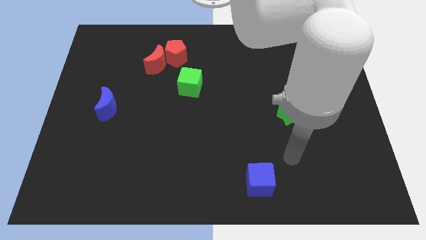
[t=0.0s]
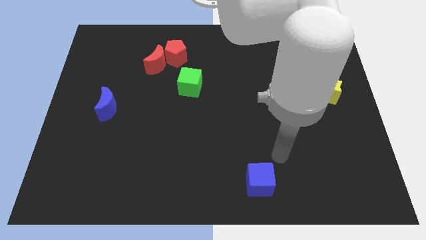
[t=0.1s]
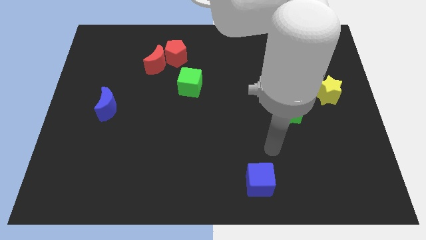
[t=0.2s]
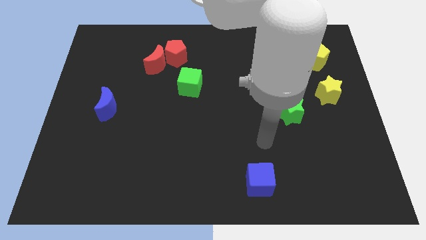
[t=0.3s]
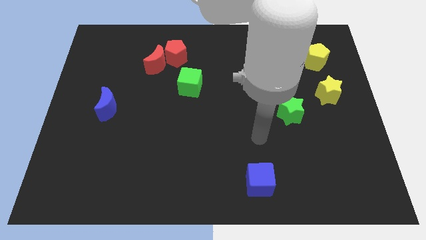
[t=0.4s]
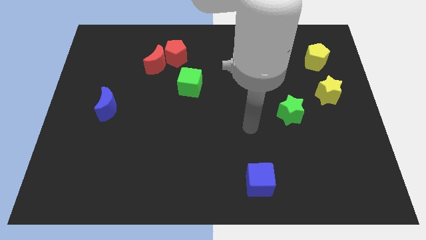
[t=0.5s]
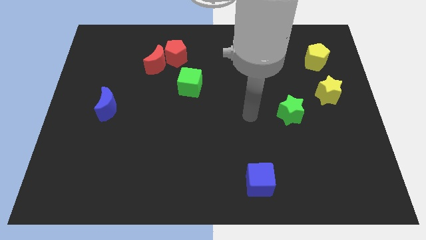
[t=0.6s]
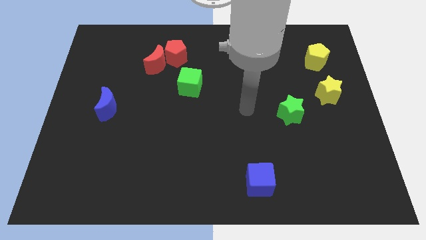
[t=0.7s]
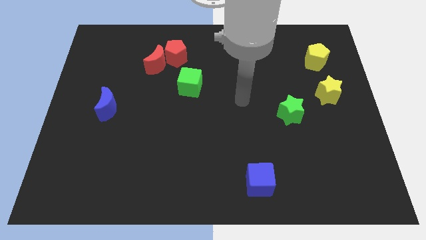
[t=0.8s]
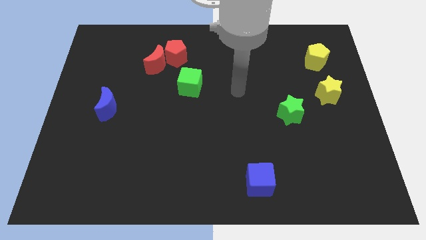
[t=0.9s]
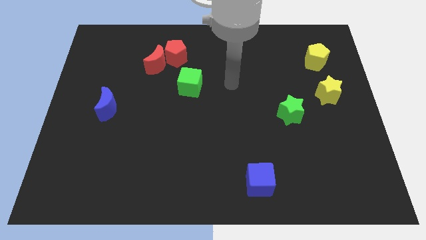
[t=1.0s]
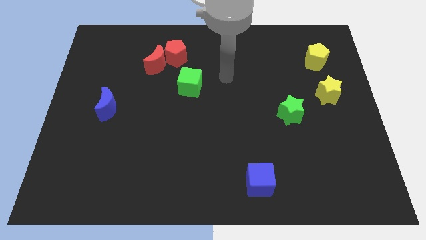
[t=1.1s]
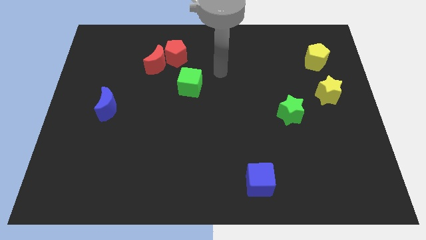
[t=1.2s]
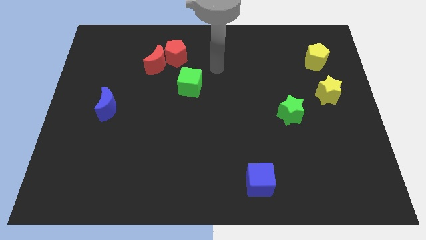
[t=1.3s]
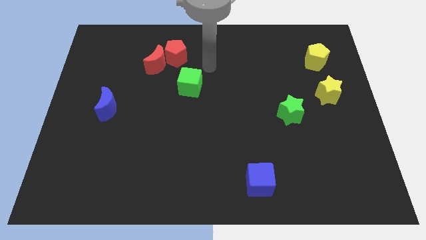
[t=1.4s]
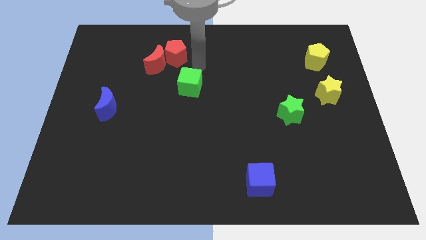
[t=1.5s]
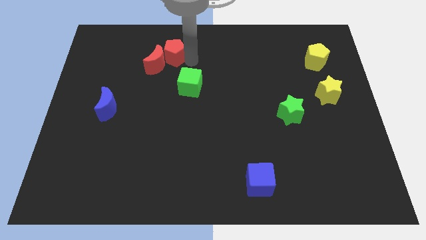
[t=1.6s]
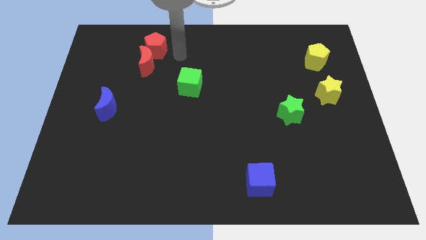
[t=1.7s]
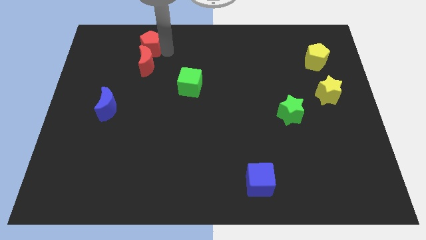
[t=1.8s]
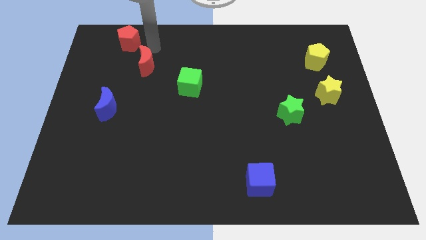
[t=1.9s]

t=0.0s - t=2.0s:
separate the red moon from the red pentagon

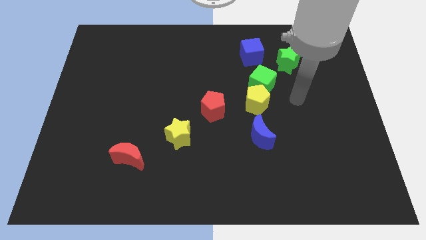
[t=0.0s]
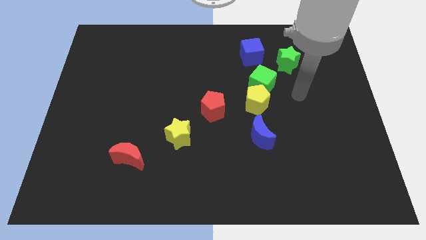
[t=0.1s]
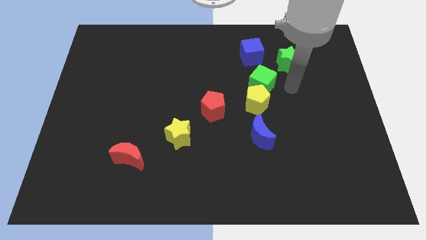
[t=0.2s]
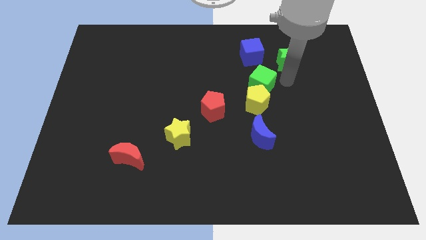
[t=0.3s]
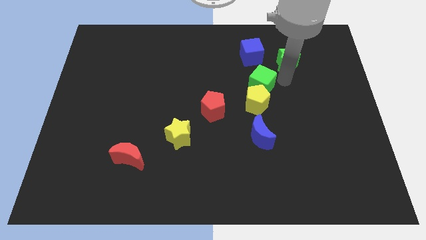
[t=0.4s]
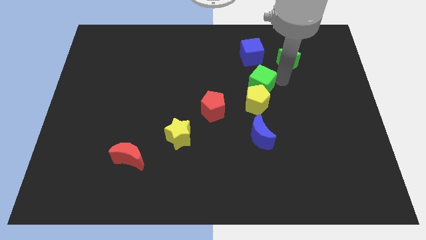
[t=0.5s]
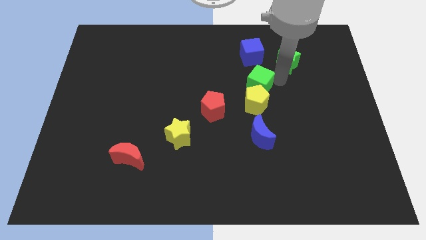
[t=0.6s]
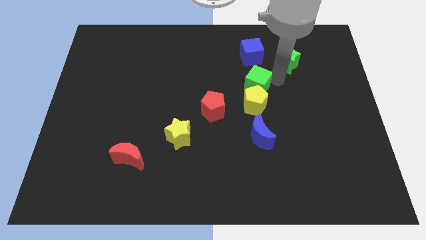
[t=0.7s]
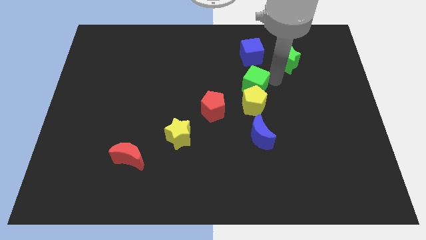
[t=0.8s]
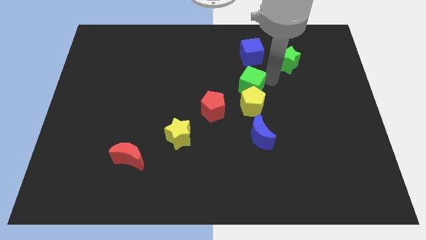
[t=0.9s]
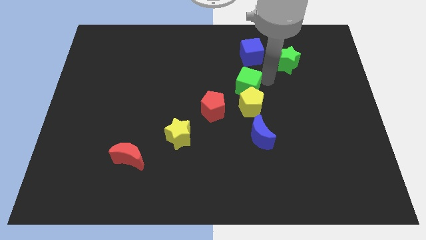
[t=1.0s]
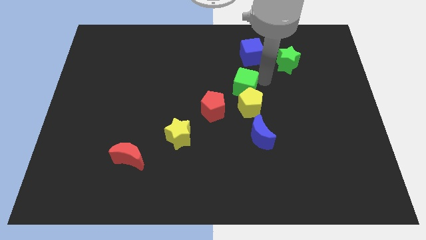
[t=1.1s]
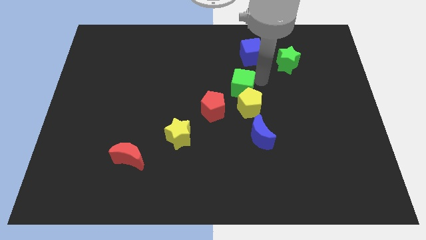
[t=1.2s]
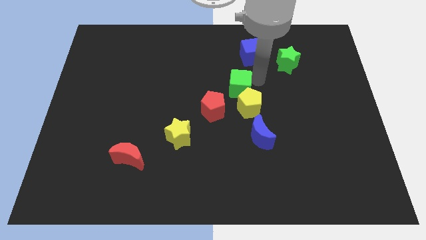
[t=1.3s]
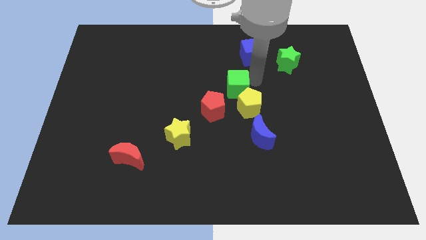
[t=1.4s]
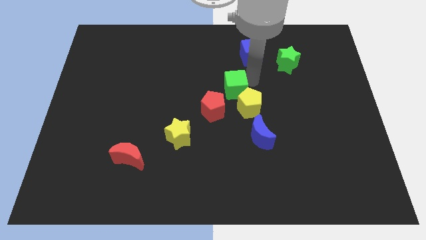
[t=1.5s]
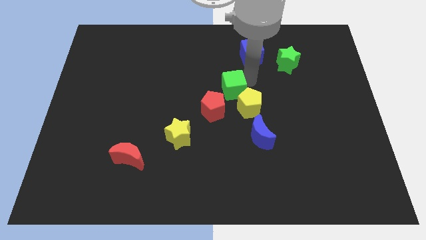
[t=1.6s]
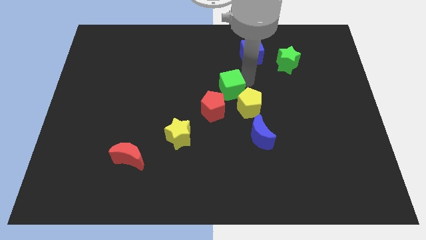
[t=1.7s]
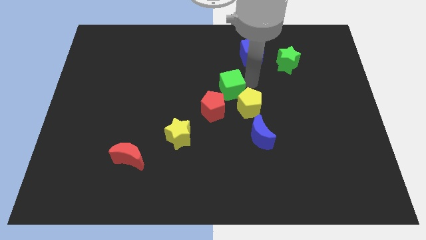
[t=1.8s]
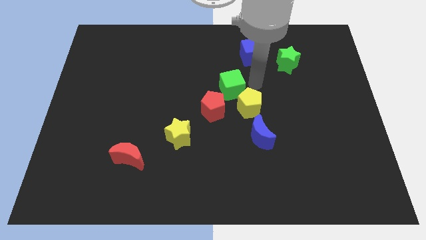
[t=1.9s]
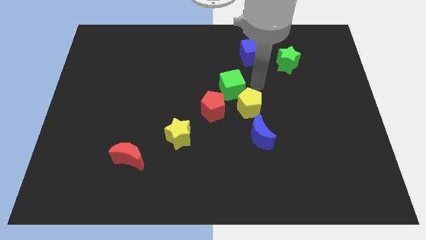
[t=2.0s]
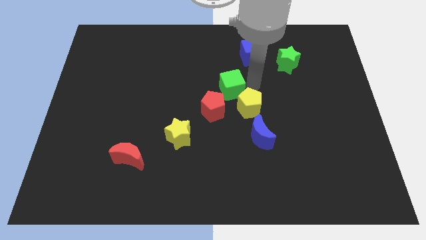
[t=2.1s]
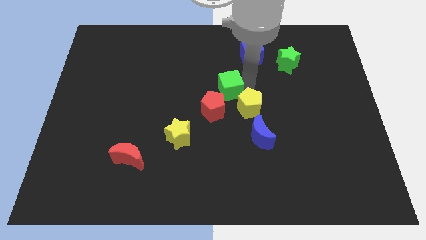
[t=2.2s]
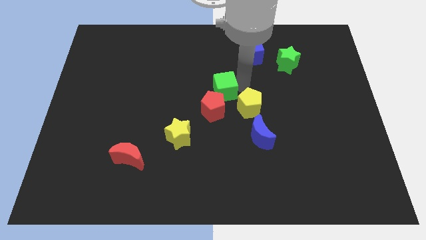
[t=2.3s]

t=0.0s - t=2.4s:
separate the green cube from the yellow pentagon and green star

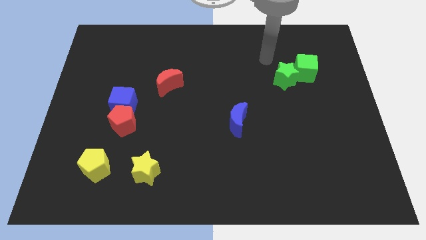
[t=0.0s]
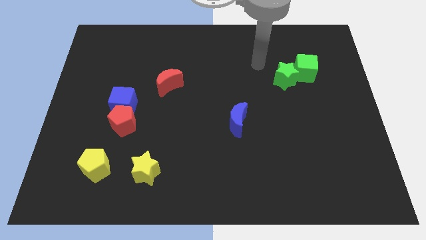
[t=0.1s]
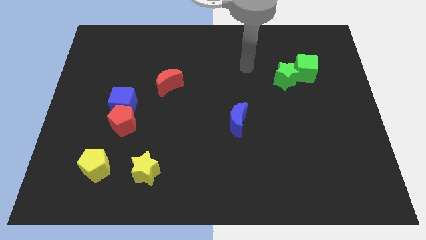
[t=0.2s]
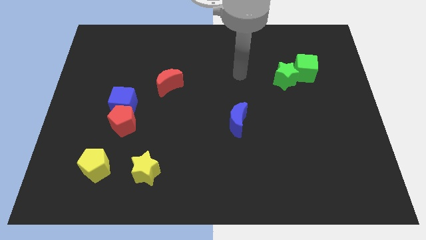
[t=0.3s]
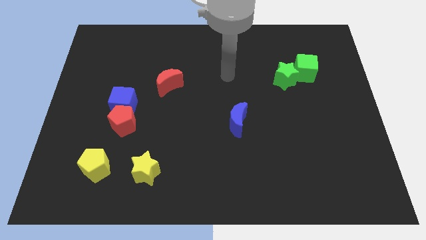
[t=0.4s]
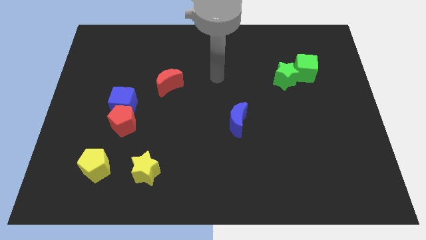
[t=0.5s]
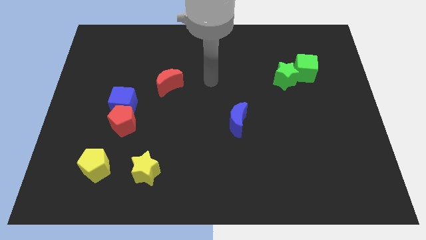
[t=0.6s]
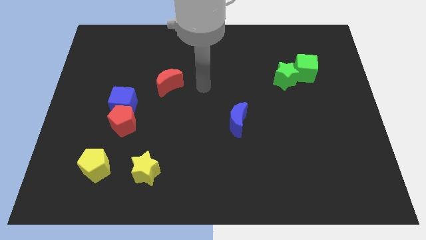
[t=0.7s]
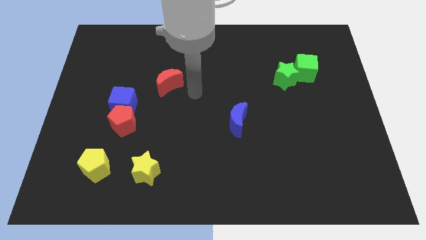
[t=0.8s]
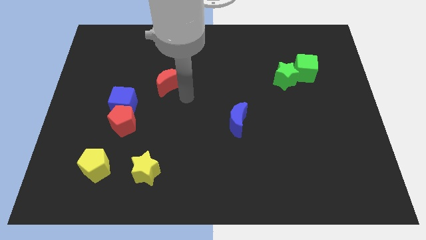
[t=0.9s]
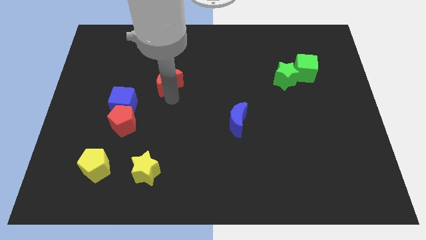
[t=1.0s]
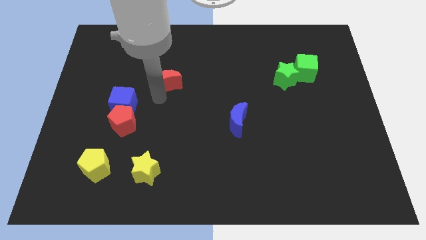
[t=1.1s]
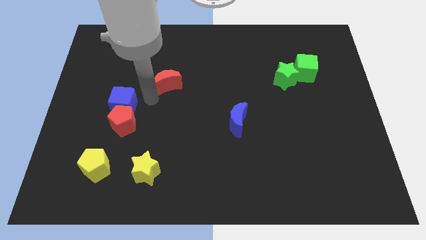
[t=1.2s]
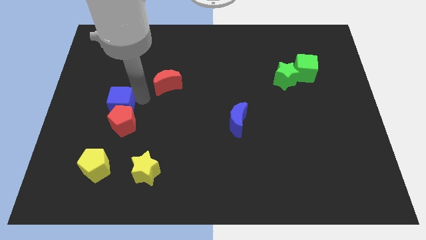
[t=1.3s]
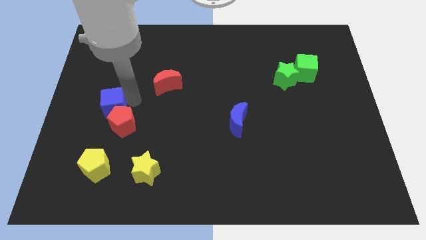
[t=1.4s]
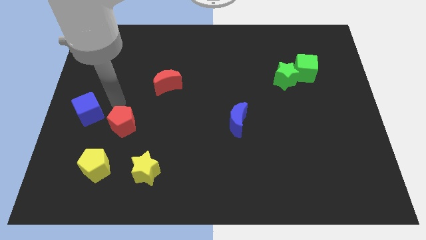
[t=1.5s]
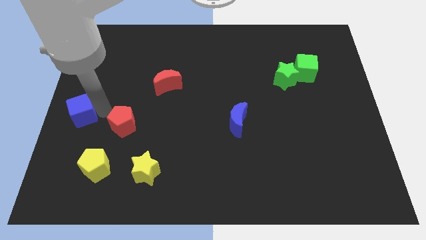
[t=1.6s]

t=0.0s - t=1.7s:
separate the red pentagon from the blue cube

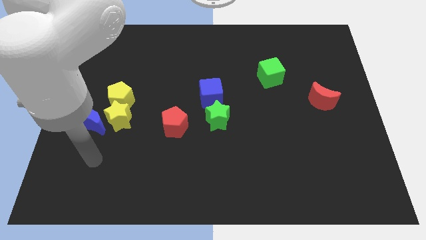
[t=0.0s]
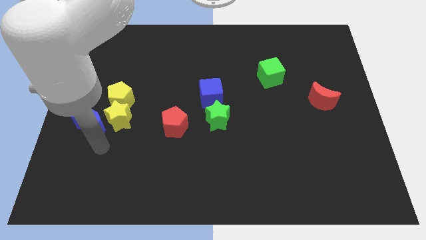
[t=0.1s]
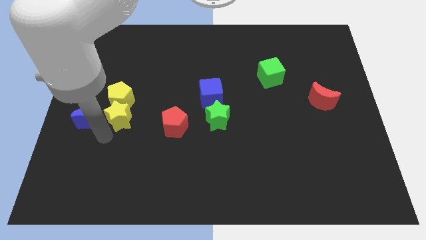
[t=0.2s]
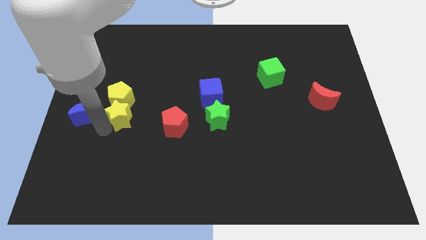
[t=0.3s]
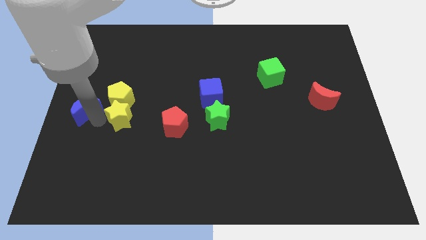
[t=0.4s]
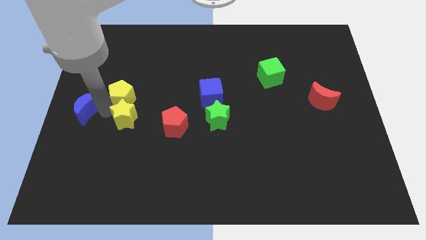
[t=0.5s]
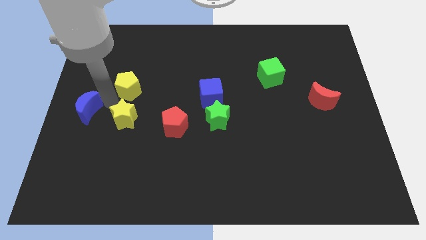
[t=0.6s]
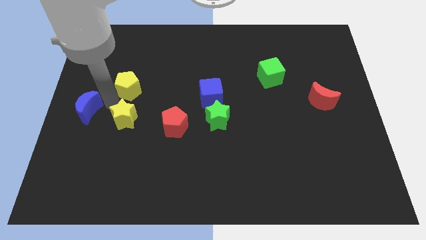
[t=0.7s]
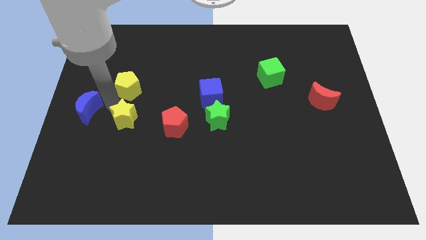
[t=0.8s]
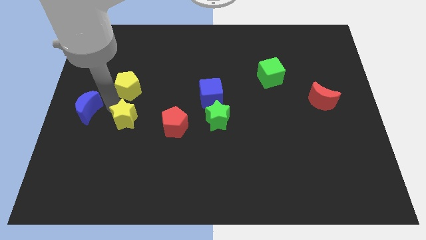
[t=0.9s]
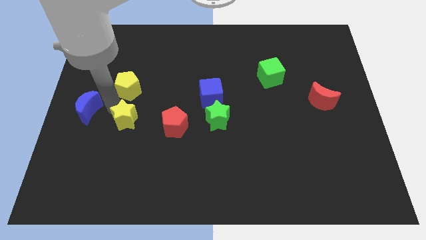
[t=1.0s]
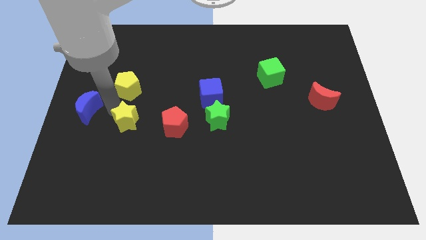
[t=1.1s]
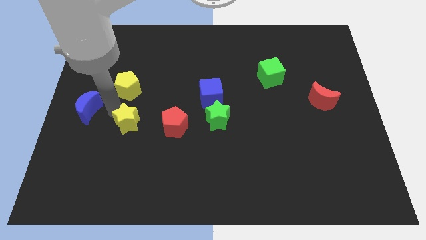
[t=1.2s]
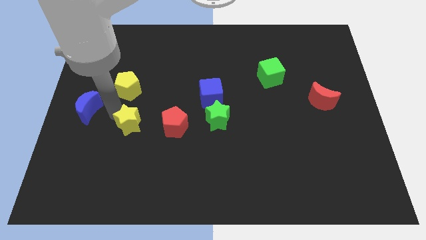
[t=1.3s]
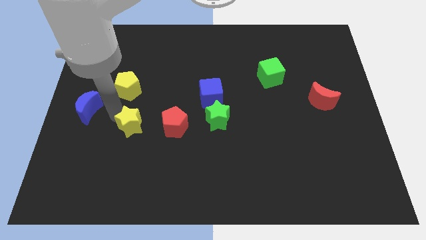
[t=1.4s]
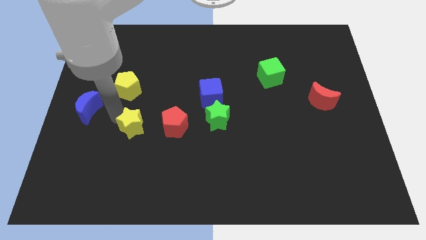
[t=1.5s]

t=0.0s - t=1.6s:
separate the yellow star from the yellow pentagon and blue moon

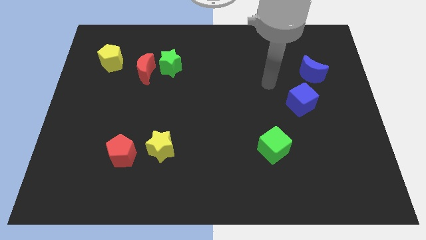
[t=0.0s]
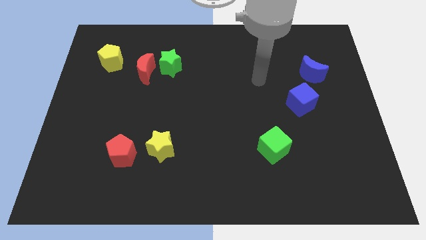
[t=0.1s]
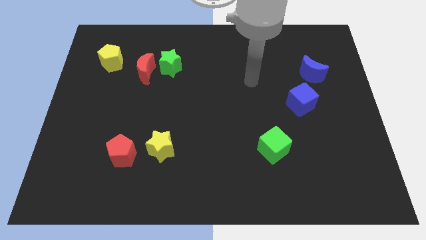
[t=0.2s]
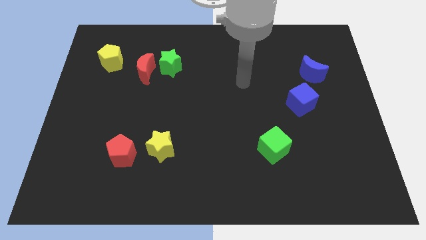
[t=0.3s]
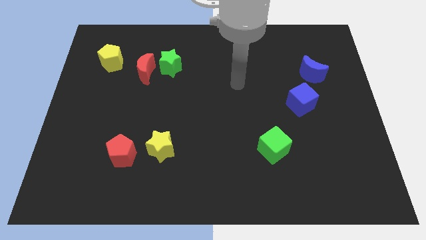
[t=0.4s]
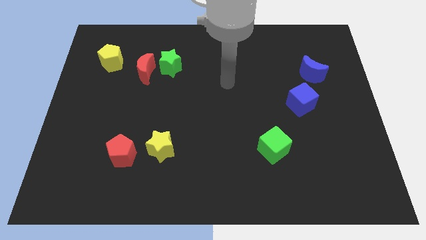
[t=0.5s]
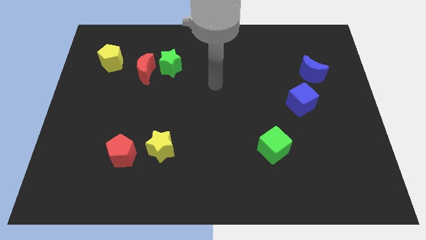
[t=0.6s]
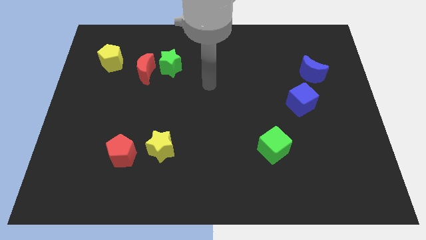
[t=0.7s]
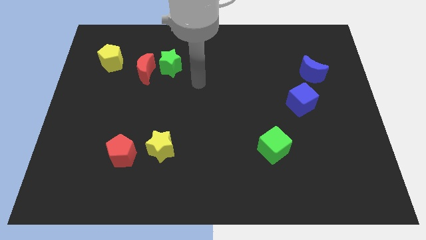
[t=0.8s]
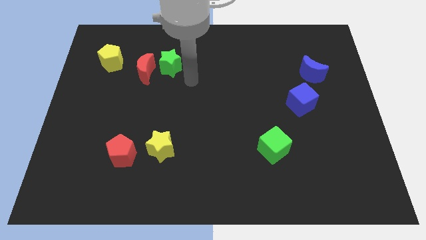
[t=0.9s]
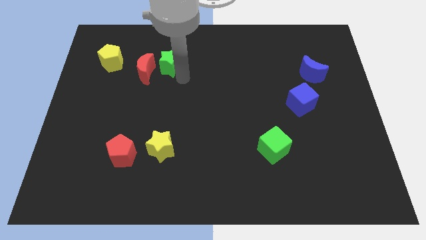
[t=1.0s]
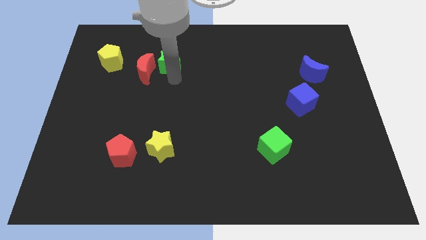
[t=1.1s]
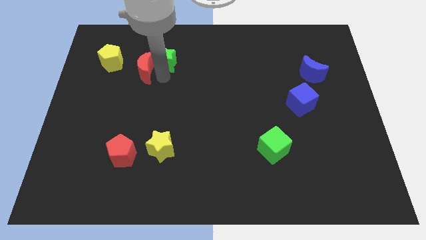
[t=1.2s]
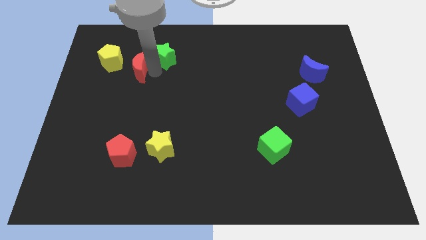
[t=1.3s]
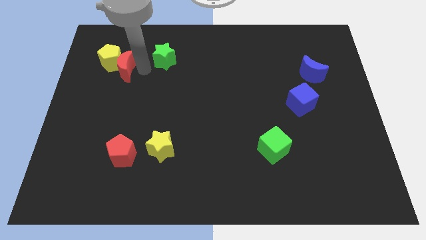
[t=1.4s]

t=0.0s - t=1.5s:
separate the green star from the red moon
